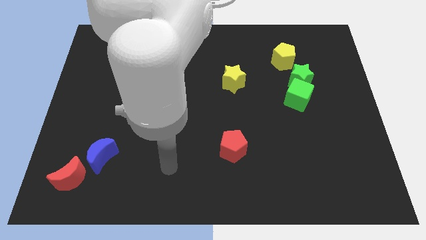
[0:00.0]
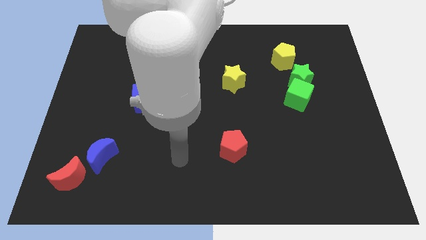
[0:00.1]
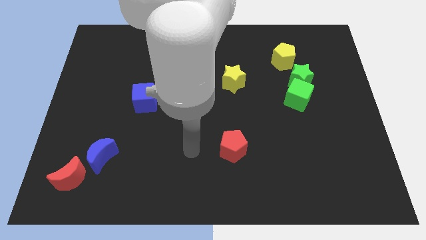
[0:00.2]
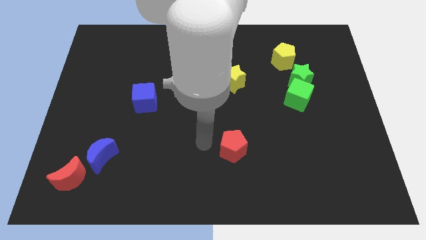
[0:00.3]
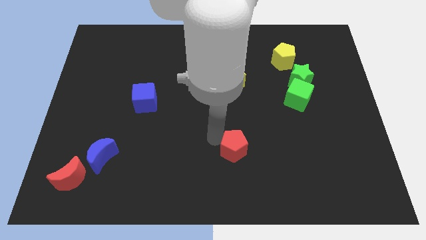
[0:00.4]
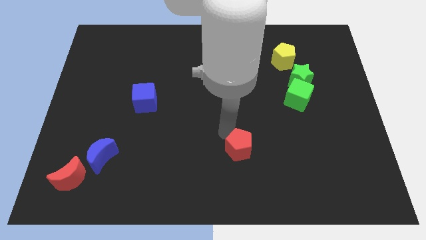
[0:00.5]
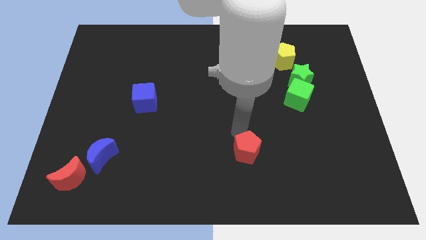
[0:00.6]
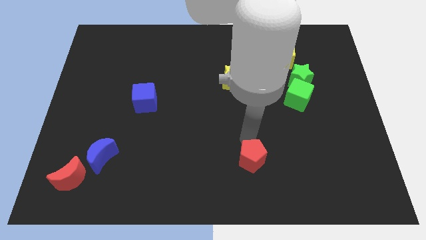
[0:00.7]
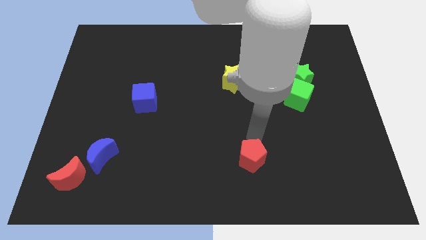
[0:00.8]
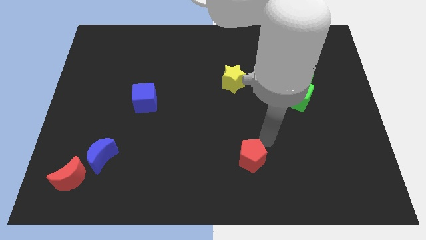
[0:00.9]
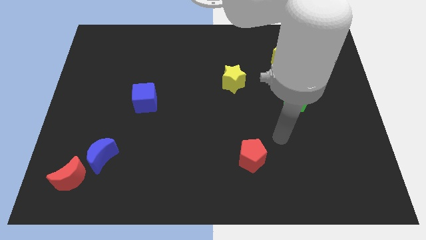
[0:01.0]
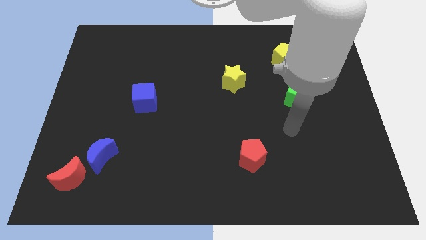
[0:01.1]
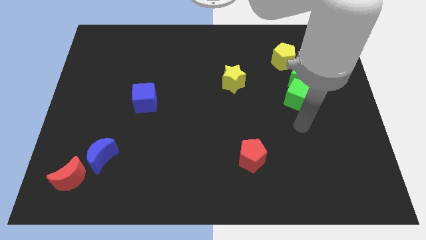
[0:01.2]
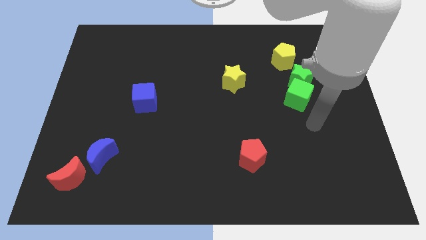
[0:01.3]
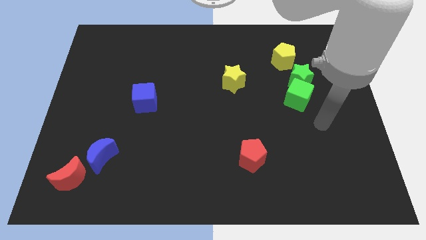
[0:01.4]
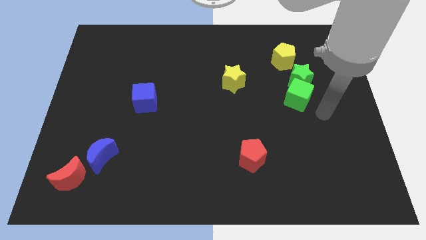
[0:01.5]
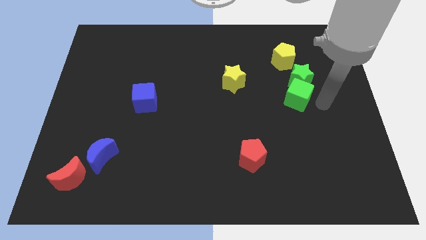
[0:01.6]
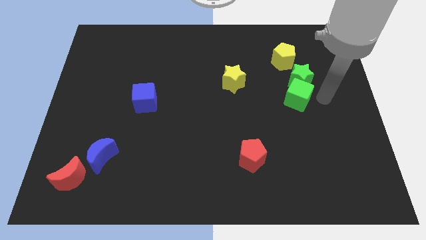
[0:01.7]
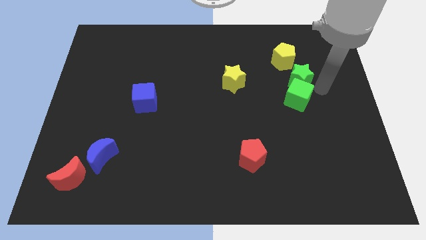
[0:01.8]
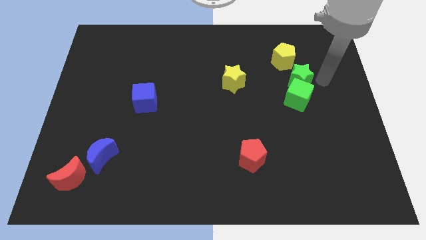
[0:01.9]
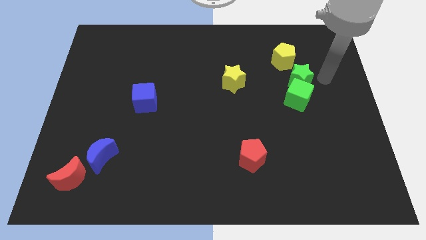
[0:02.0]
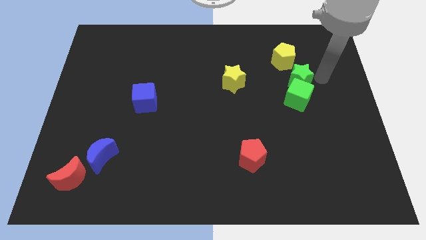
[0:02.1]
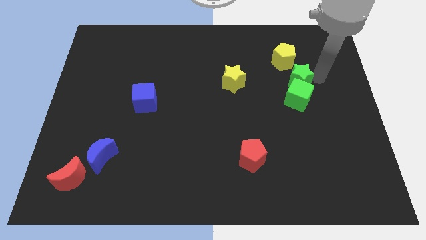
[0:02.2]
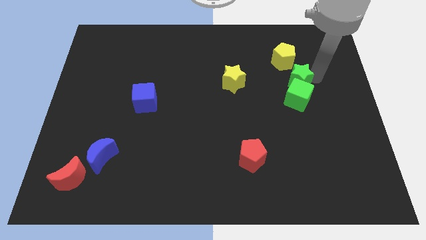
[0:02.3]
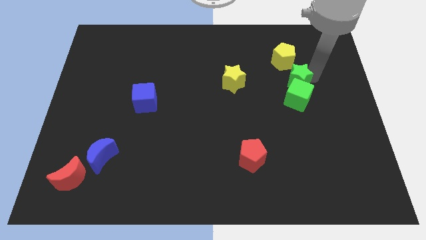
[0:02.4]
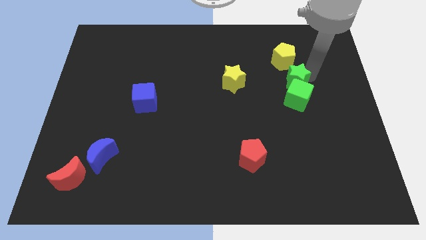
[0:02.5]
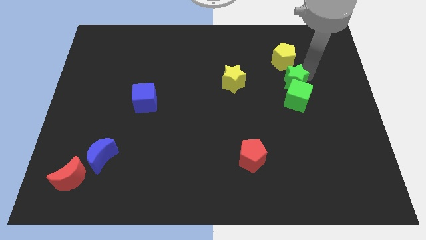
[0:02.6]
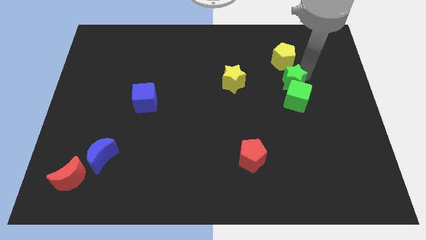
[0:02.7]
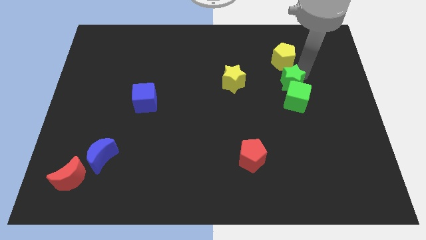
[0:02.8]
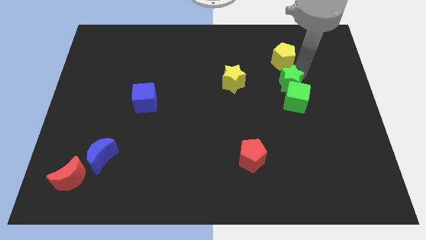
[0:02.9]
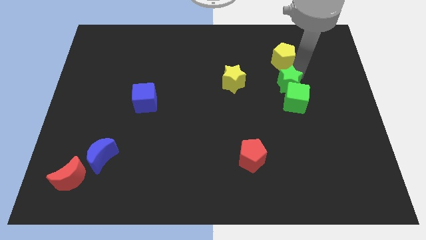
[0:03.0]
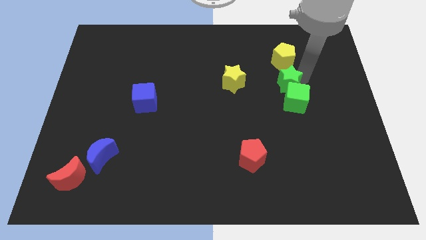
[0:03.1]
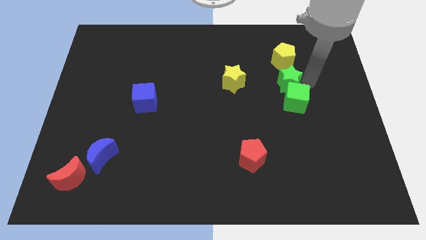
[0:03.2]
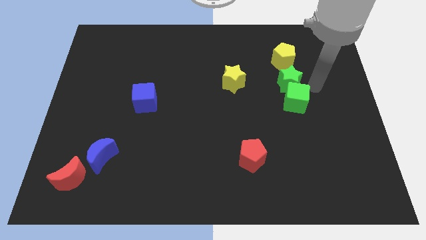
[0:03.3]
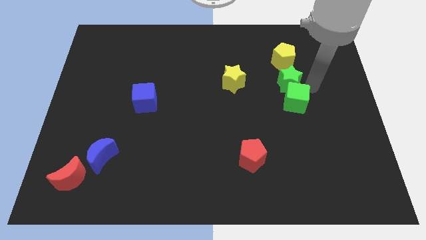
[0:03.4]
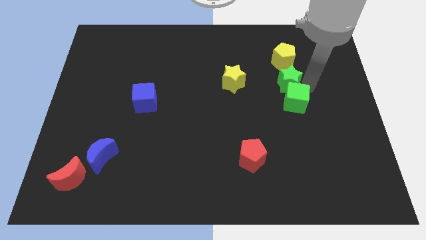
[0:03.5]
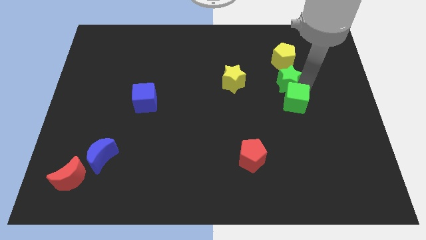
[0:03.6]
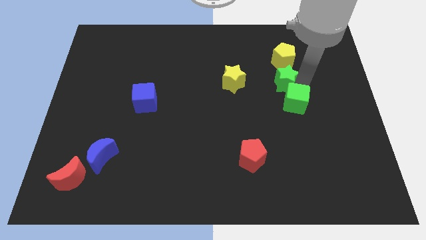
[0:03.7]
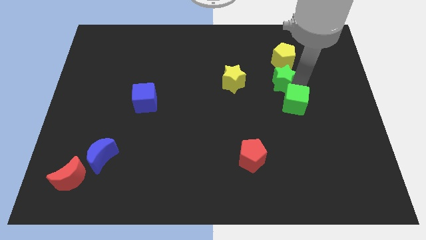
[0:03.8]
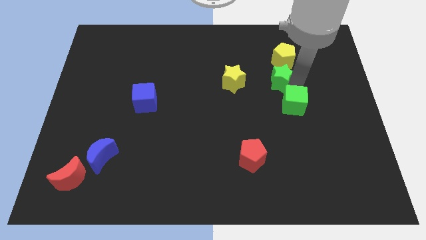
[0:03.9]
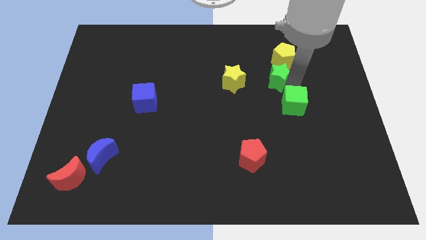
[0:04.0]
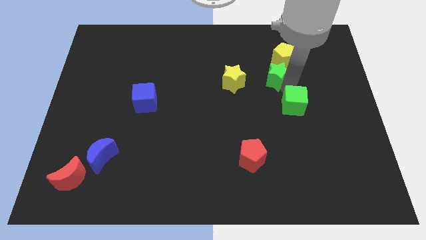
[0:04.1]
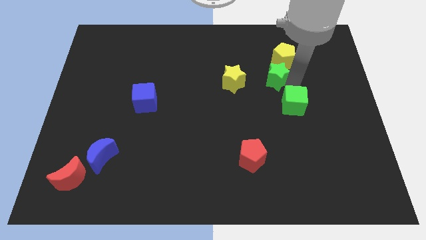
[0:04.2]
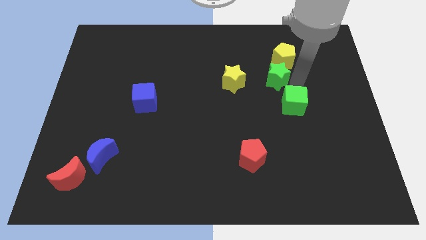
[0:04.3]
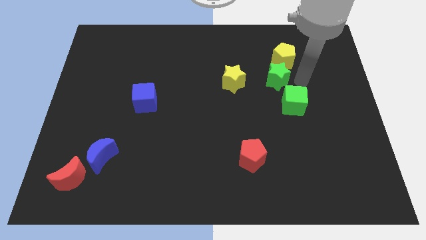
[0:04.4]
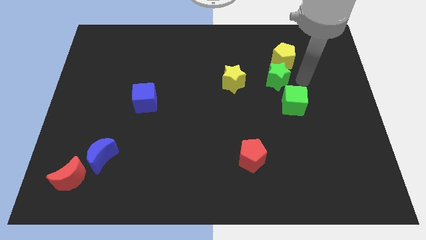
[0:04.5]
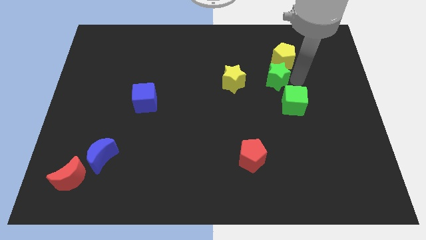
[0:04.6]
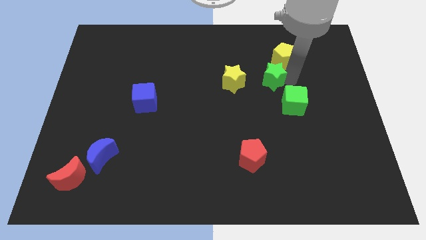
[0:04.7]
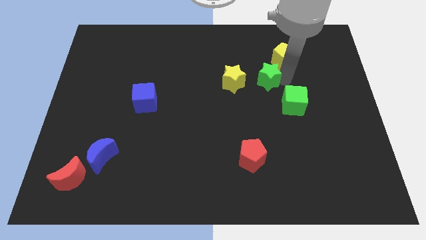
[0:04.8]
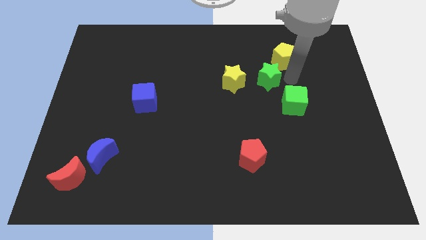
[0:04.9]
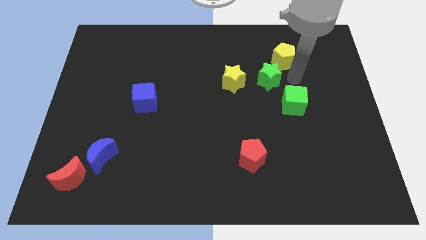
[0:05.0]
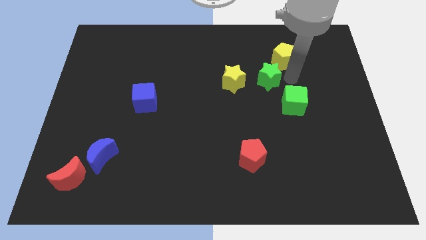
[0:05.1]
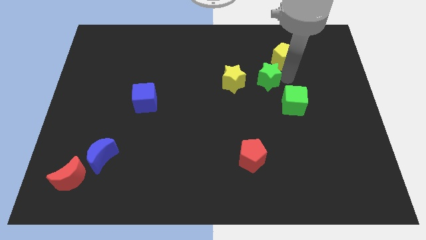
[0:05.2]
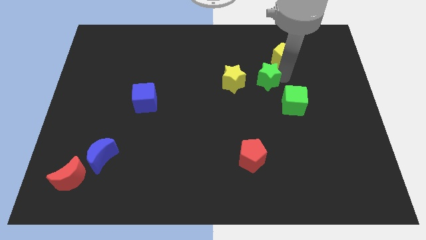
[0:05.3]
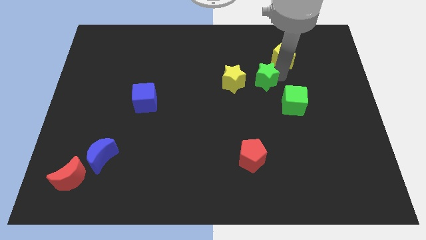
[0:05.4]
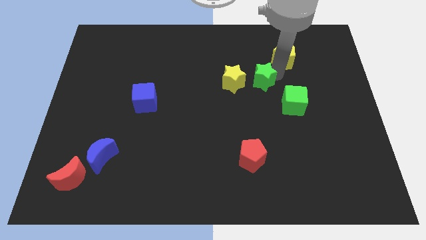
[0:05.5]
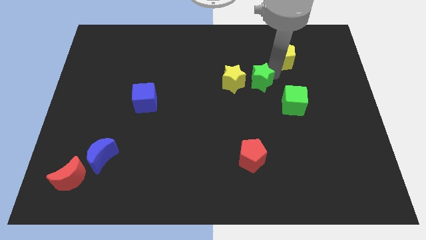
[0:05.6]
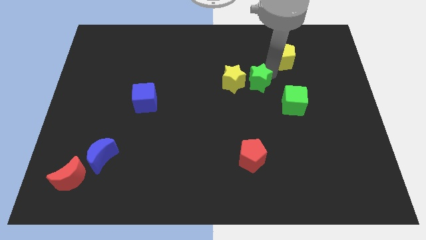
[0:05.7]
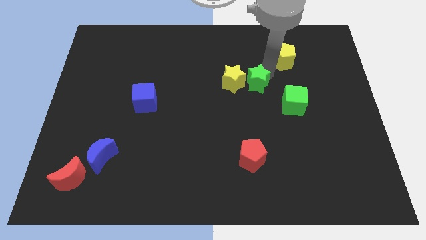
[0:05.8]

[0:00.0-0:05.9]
put the green star towards the yellow star
